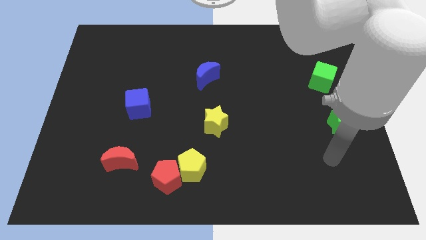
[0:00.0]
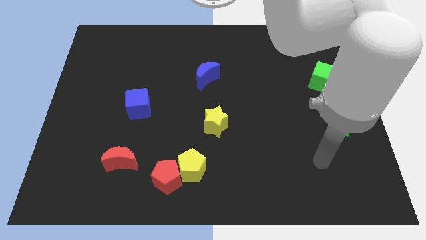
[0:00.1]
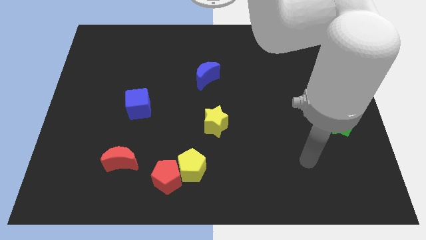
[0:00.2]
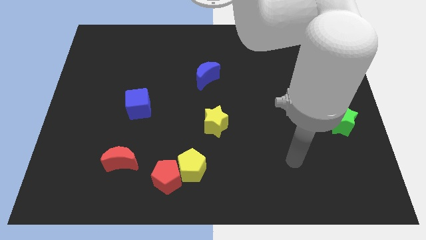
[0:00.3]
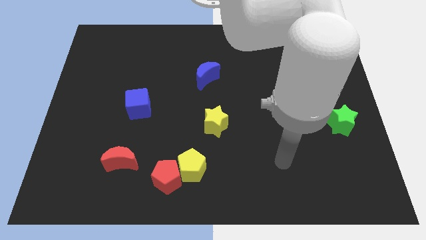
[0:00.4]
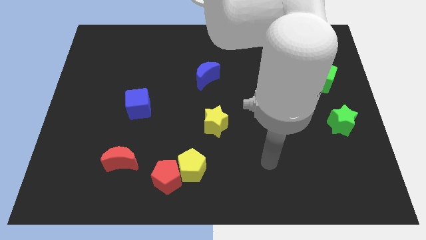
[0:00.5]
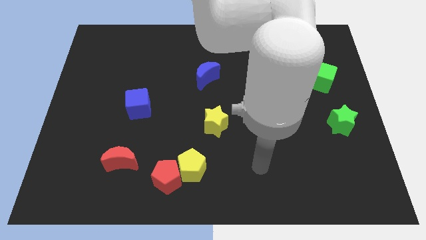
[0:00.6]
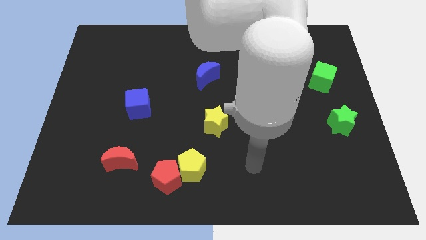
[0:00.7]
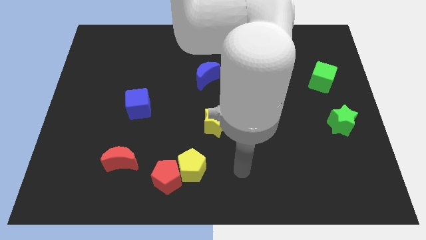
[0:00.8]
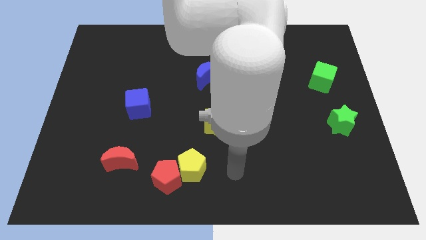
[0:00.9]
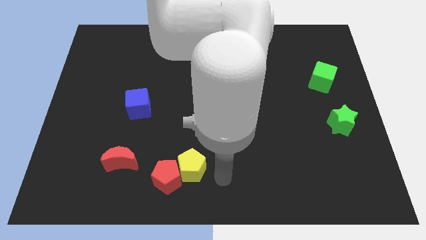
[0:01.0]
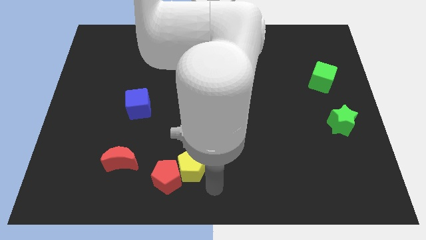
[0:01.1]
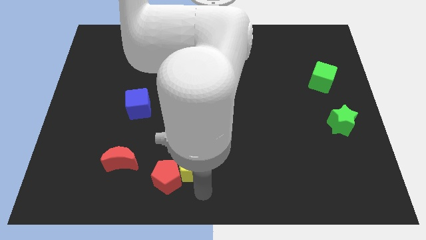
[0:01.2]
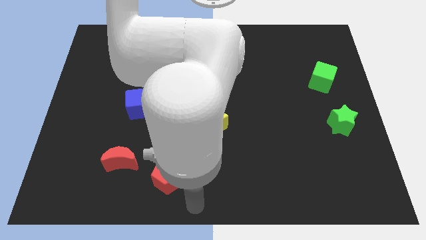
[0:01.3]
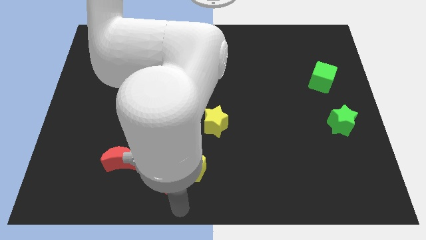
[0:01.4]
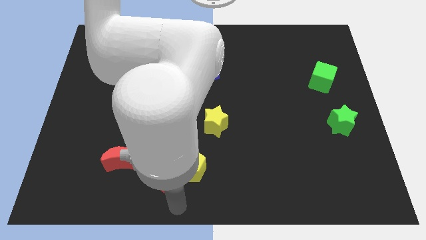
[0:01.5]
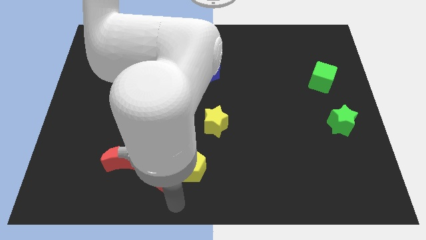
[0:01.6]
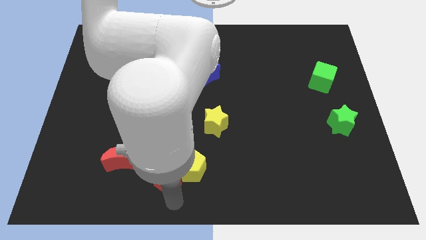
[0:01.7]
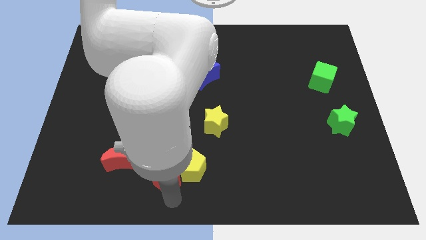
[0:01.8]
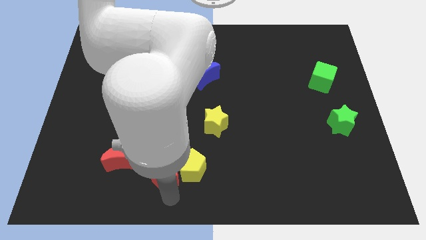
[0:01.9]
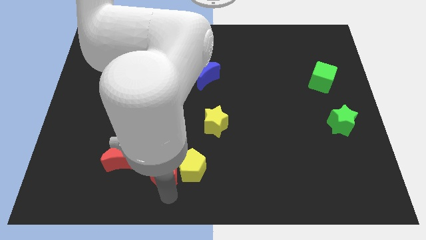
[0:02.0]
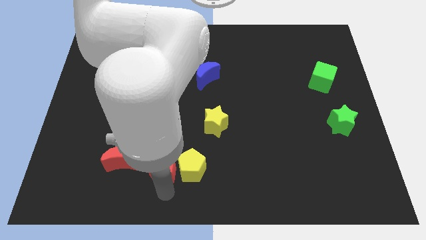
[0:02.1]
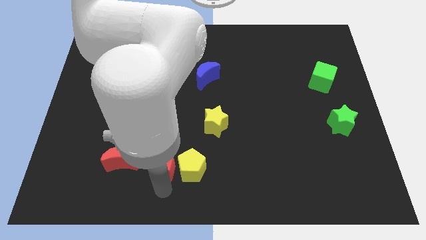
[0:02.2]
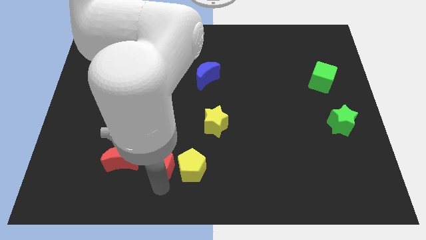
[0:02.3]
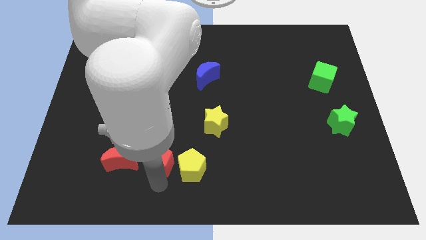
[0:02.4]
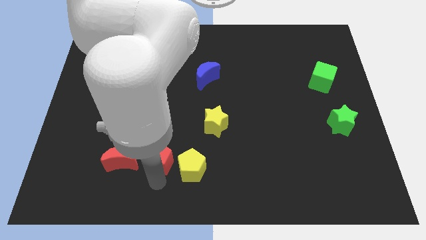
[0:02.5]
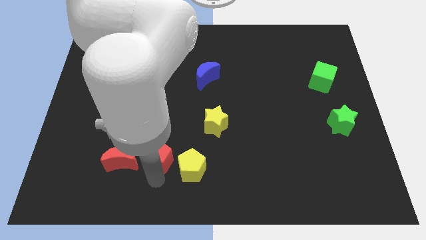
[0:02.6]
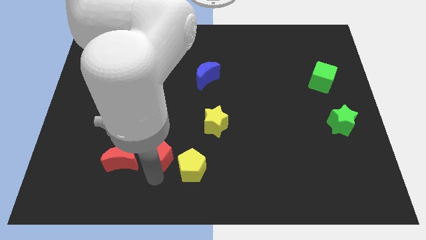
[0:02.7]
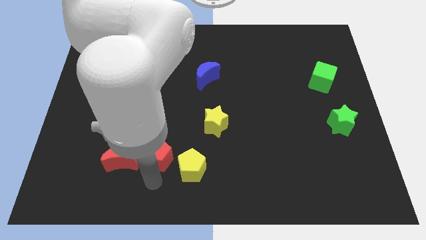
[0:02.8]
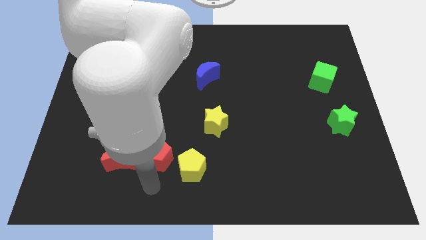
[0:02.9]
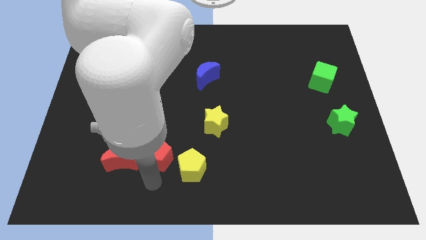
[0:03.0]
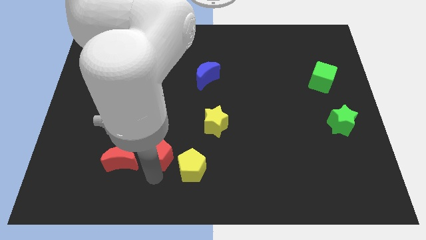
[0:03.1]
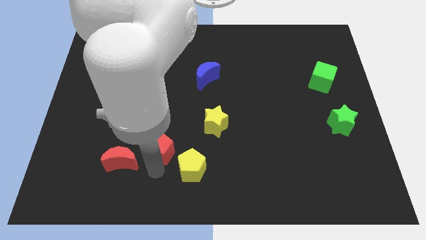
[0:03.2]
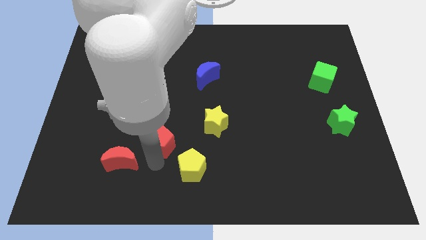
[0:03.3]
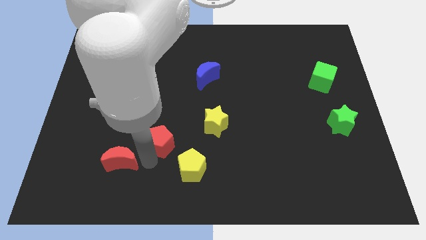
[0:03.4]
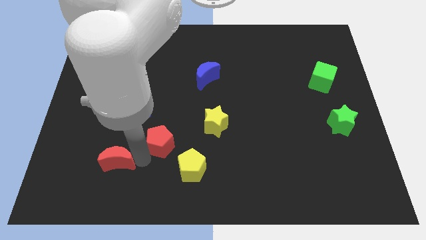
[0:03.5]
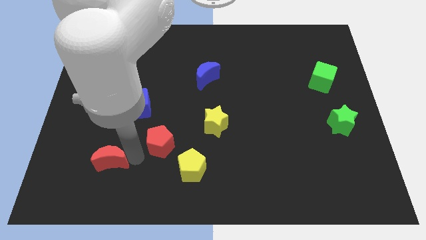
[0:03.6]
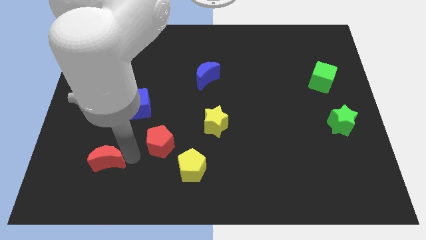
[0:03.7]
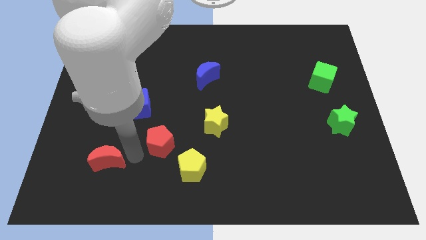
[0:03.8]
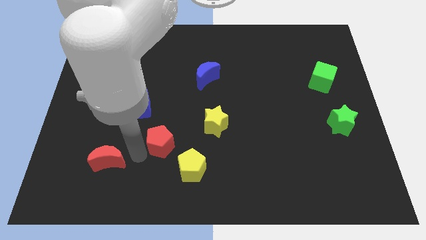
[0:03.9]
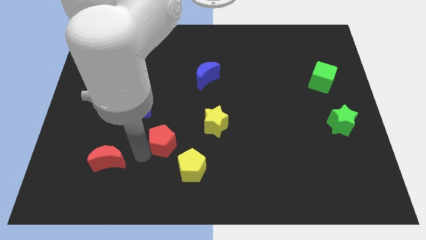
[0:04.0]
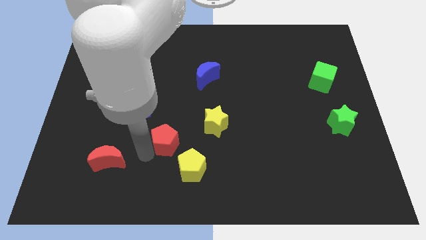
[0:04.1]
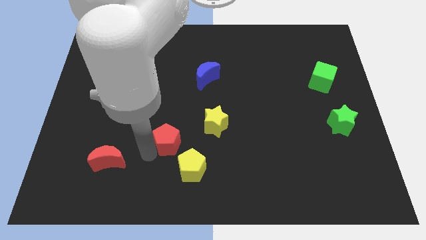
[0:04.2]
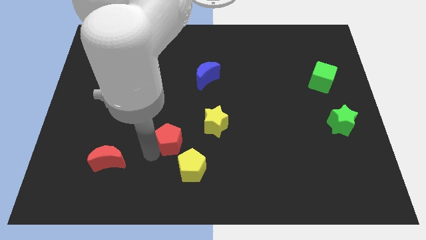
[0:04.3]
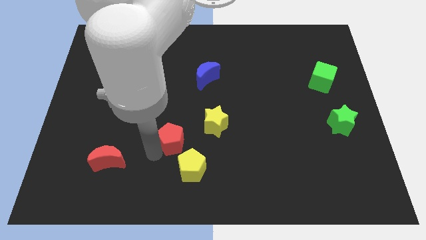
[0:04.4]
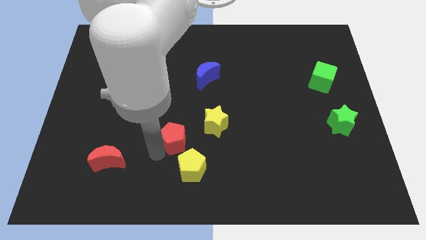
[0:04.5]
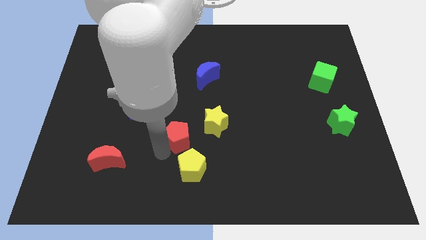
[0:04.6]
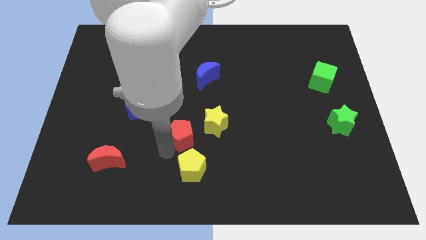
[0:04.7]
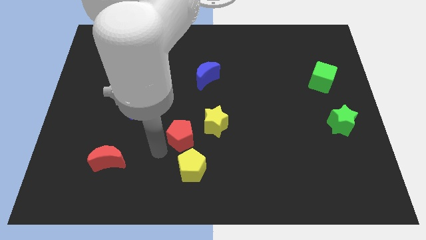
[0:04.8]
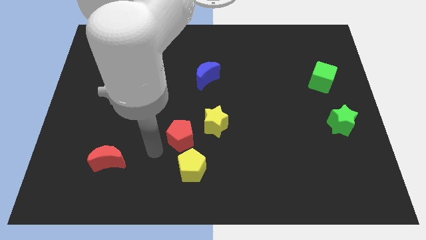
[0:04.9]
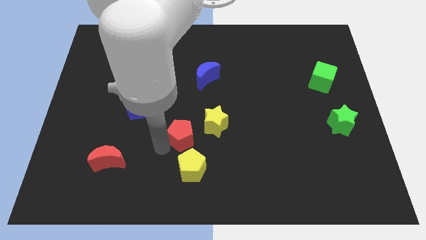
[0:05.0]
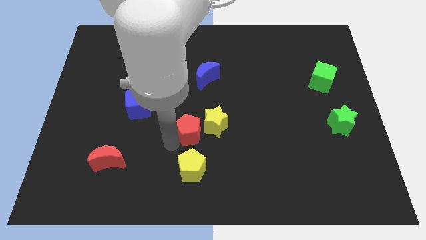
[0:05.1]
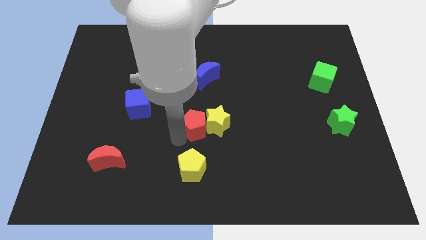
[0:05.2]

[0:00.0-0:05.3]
push the red pentagon close to the yellow star

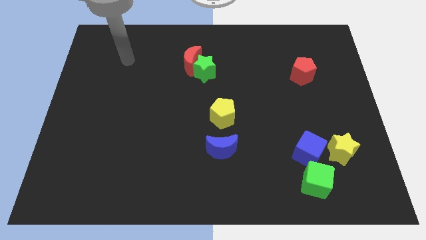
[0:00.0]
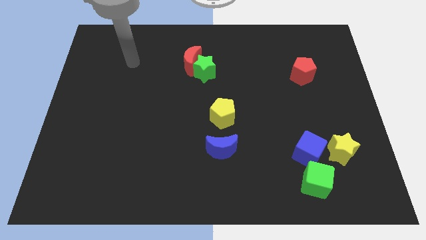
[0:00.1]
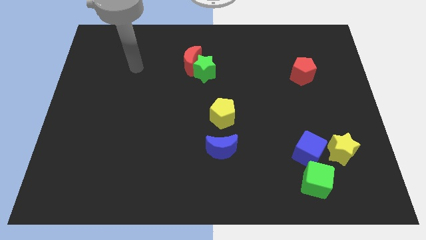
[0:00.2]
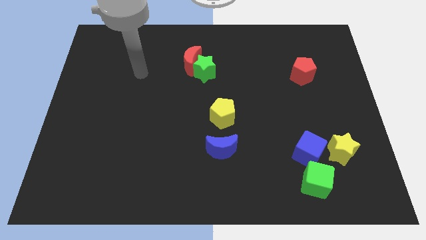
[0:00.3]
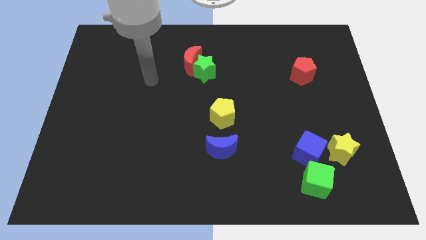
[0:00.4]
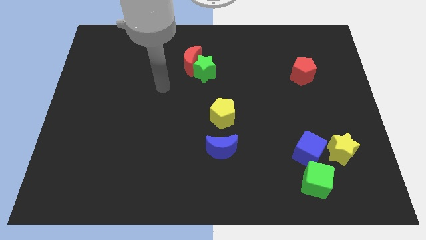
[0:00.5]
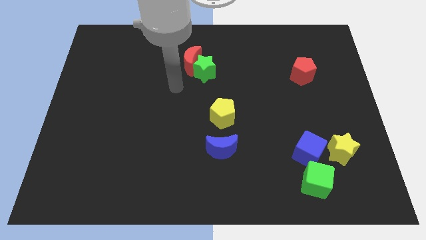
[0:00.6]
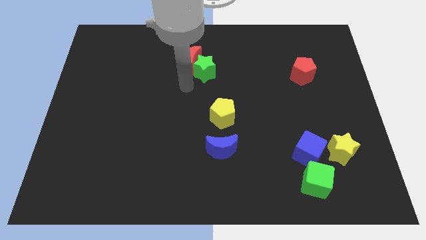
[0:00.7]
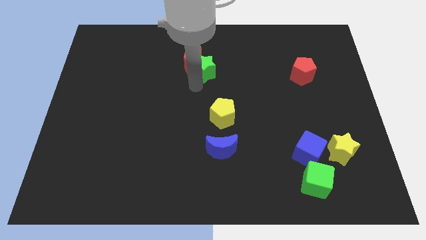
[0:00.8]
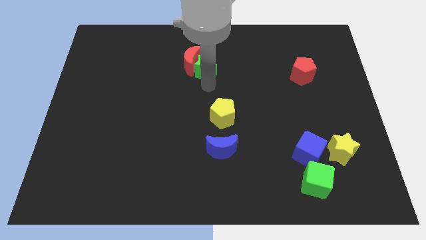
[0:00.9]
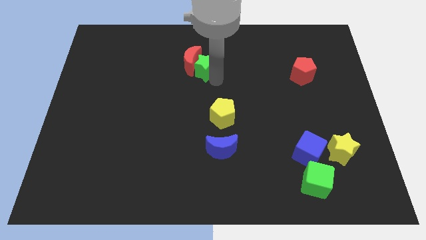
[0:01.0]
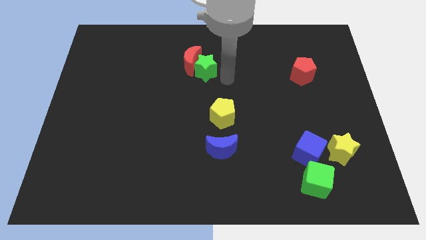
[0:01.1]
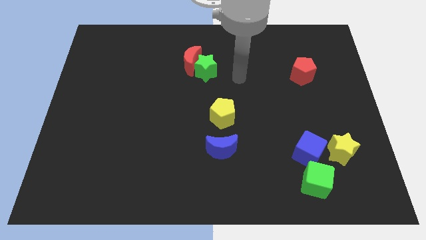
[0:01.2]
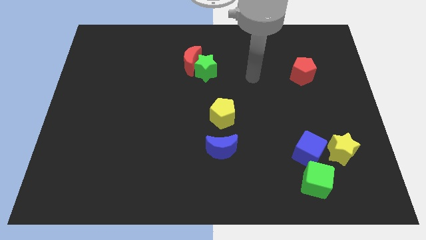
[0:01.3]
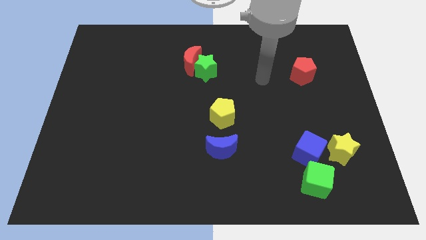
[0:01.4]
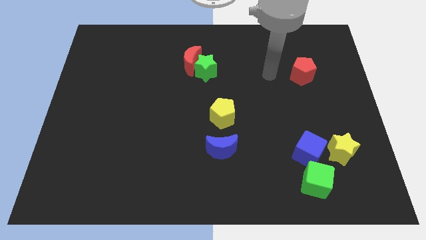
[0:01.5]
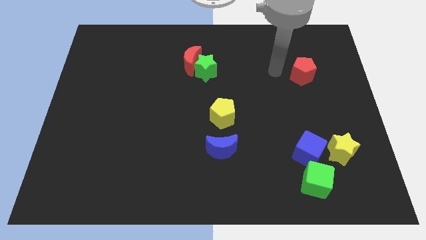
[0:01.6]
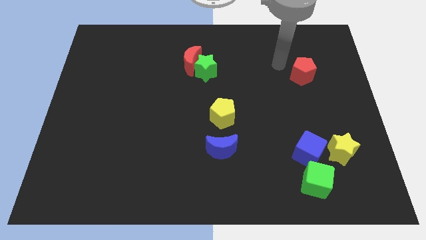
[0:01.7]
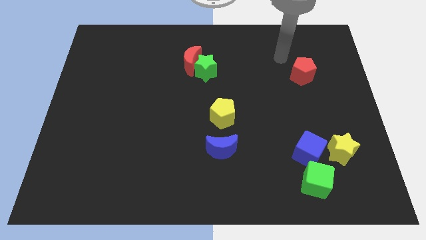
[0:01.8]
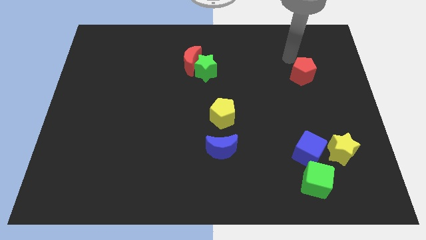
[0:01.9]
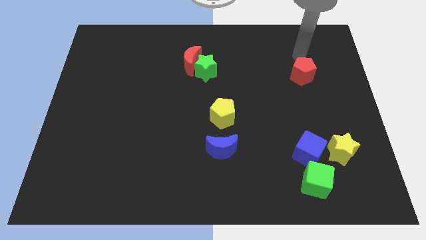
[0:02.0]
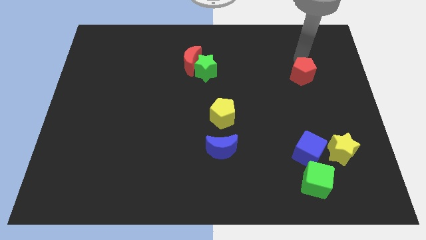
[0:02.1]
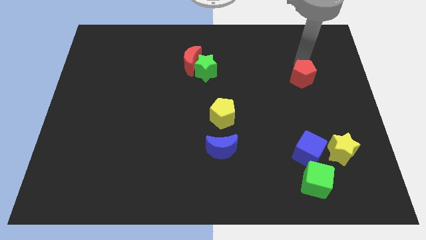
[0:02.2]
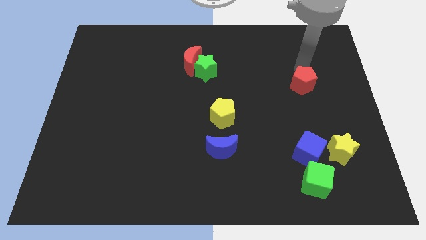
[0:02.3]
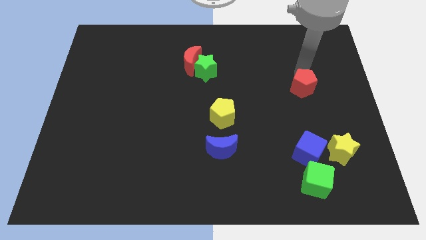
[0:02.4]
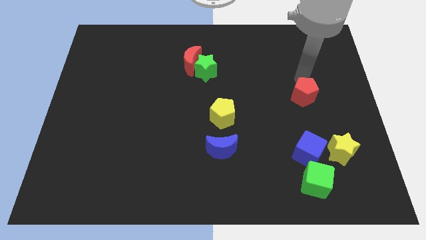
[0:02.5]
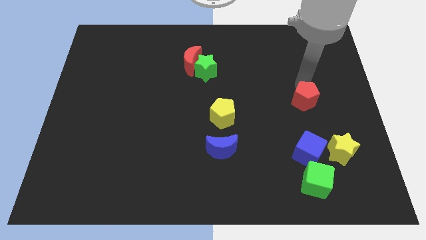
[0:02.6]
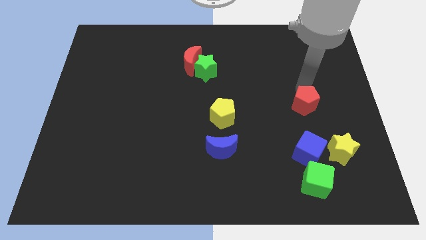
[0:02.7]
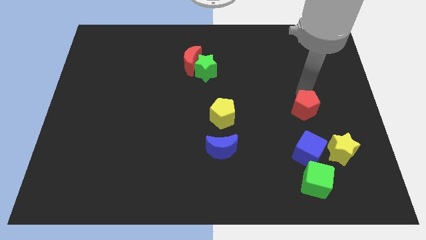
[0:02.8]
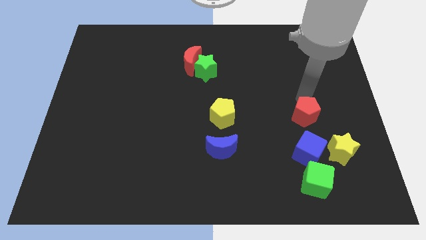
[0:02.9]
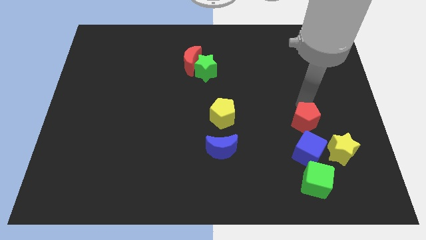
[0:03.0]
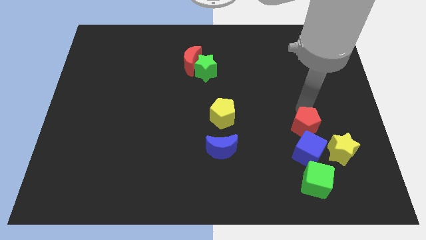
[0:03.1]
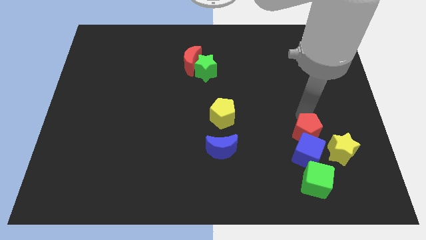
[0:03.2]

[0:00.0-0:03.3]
move the red pentagon close to the blue cube
